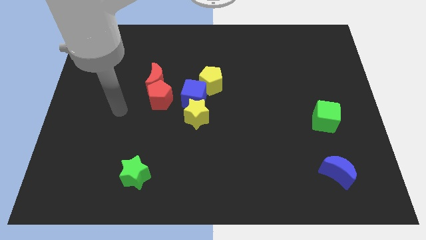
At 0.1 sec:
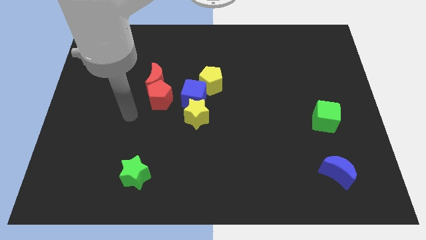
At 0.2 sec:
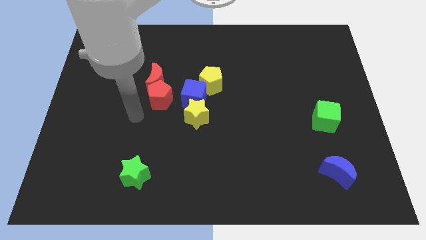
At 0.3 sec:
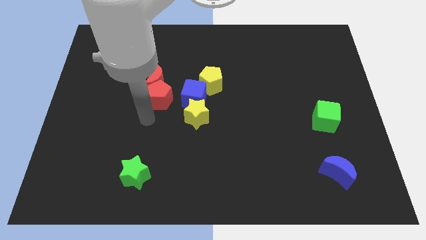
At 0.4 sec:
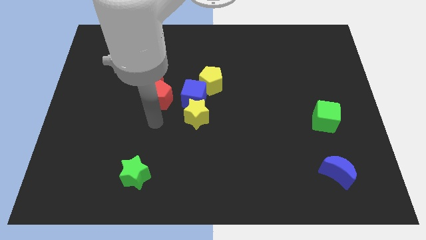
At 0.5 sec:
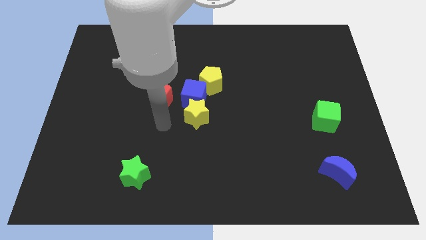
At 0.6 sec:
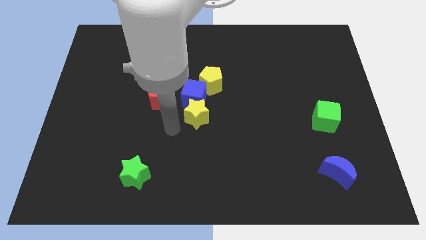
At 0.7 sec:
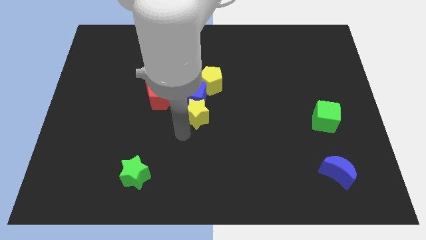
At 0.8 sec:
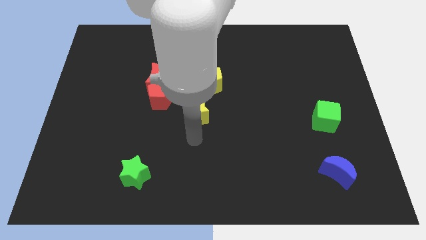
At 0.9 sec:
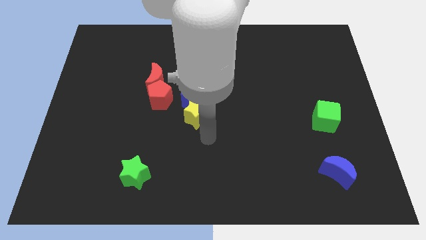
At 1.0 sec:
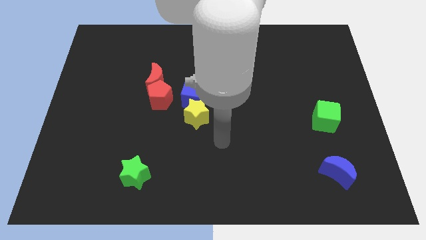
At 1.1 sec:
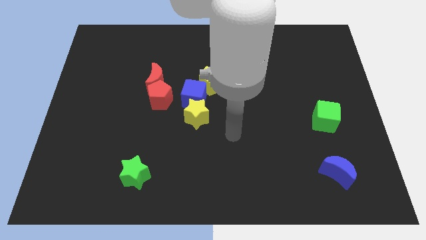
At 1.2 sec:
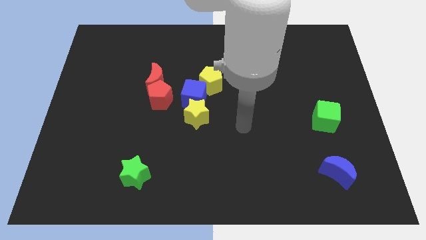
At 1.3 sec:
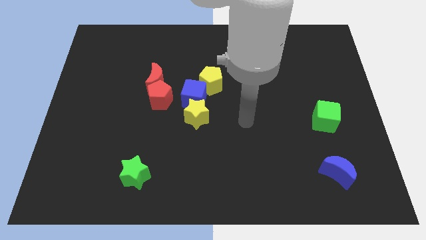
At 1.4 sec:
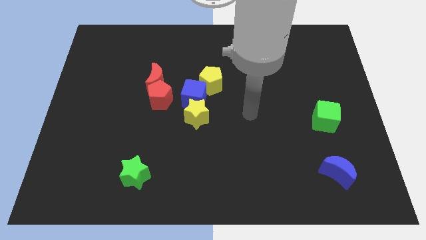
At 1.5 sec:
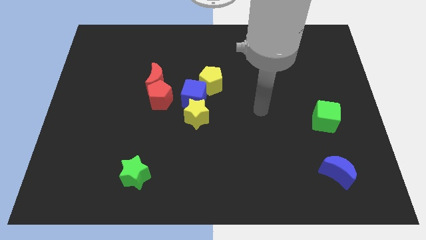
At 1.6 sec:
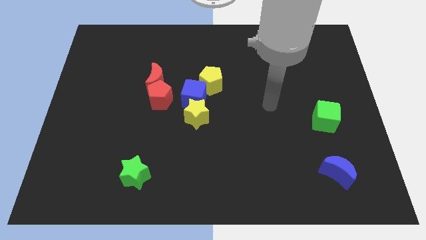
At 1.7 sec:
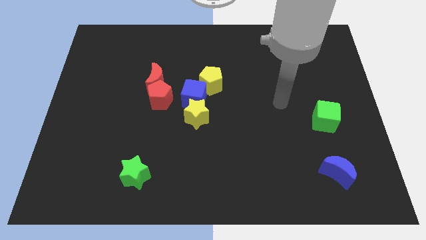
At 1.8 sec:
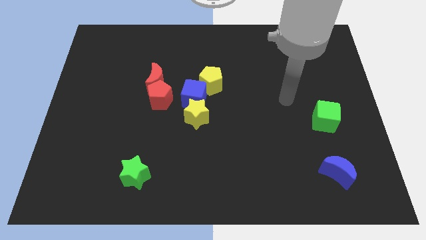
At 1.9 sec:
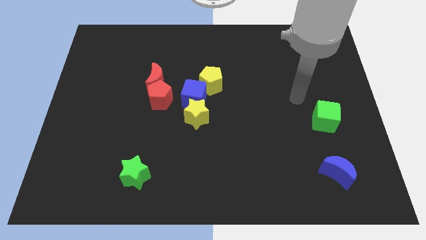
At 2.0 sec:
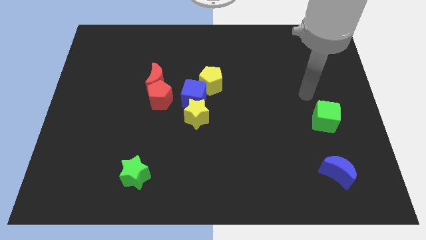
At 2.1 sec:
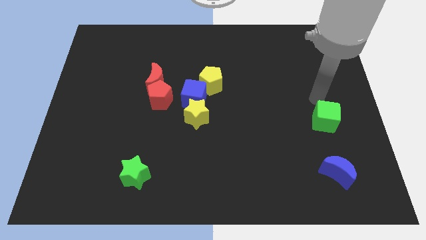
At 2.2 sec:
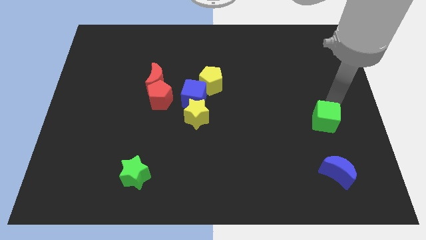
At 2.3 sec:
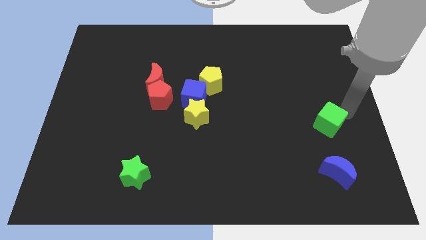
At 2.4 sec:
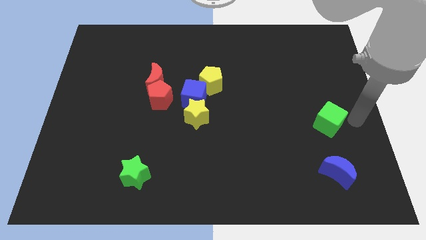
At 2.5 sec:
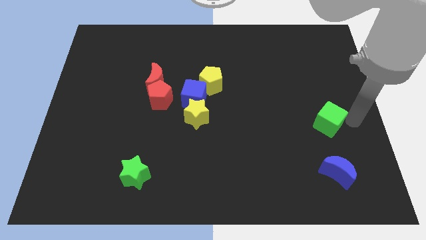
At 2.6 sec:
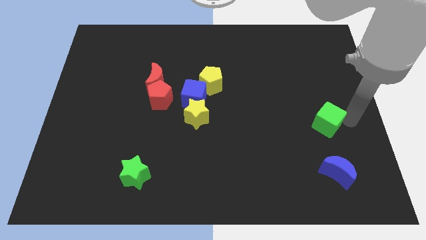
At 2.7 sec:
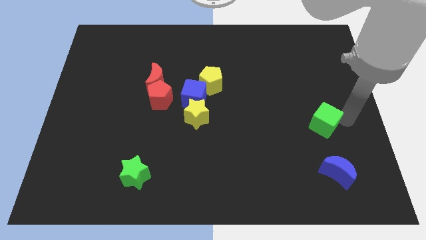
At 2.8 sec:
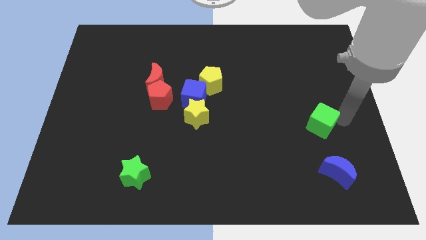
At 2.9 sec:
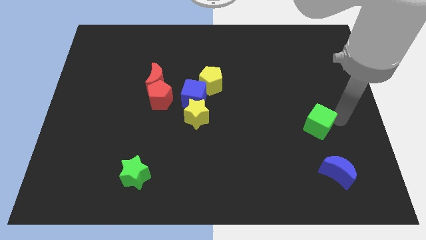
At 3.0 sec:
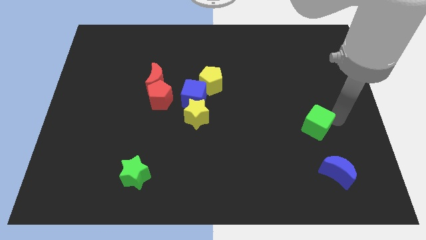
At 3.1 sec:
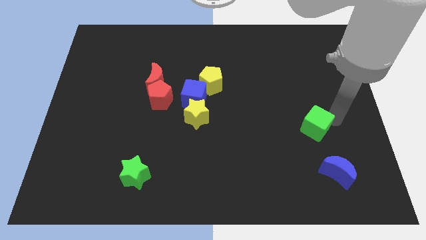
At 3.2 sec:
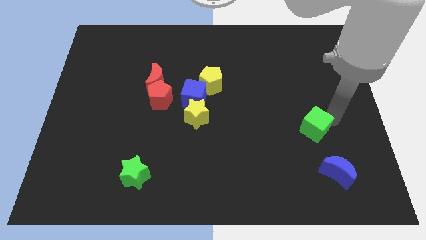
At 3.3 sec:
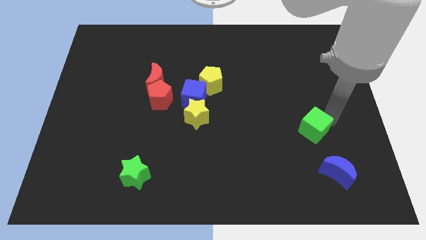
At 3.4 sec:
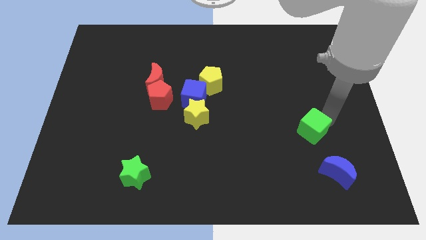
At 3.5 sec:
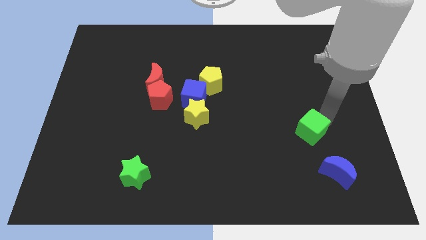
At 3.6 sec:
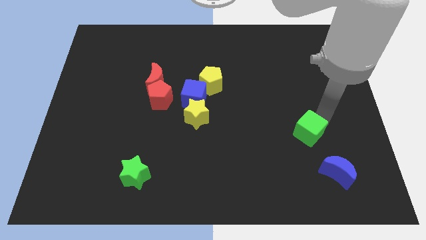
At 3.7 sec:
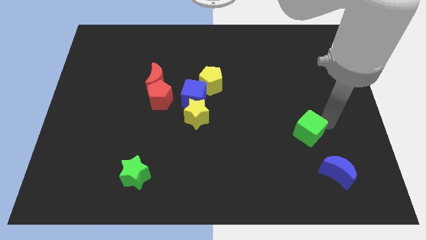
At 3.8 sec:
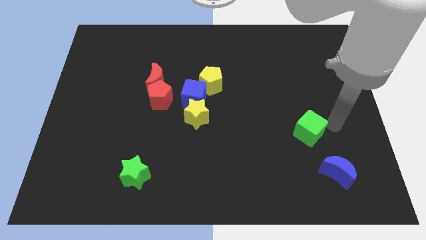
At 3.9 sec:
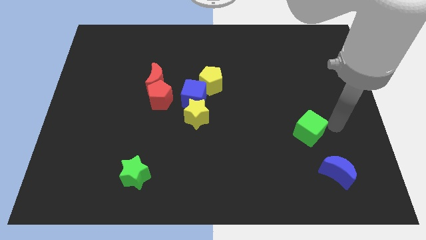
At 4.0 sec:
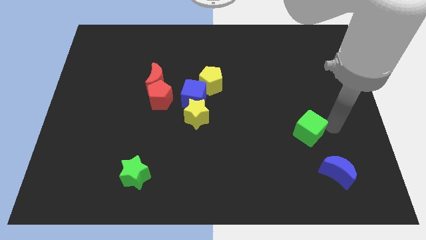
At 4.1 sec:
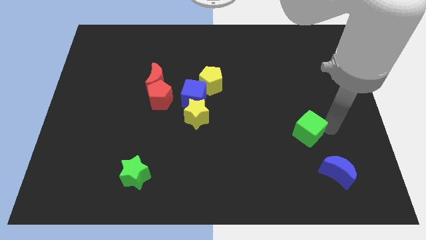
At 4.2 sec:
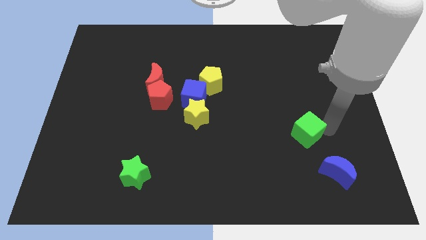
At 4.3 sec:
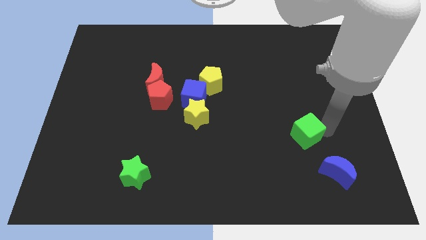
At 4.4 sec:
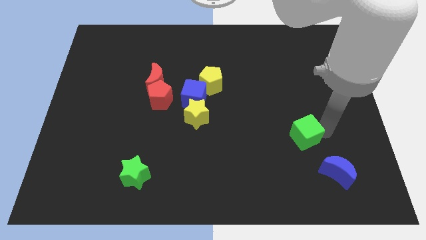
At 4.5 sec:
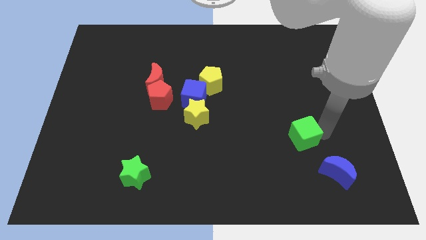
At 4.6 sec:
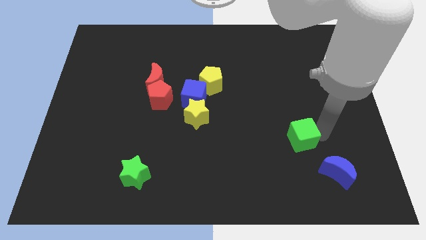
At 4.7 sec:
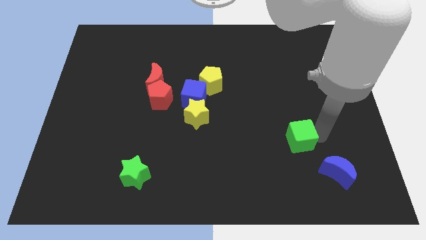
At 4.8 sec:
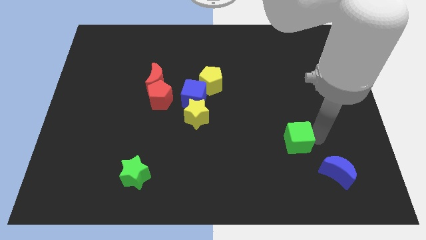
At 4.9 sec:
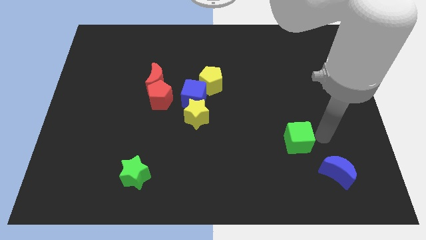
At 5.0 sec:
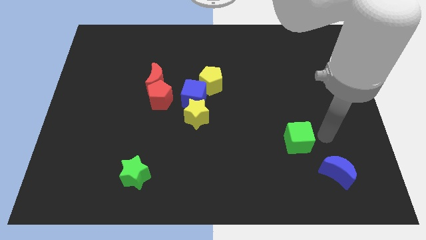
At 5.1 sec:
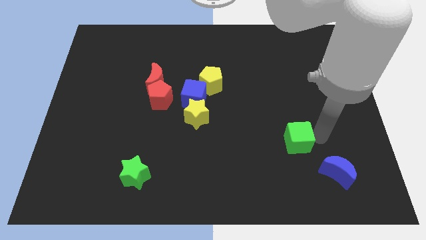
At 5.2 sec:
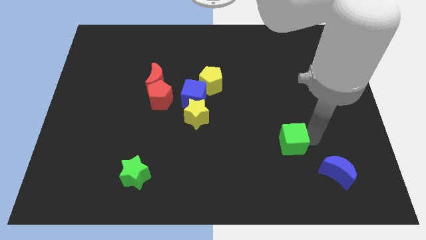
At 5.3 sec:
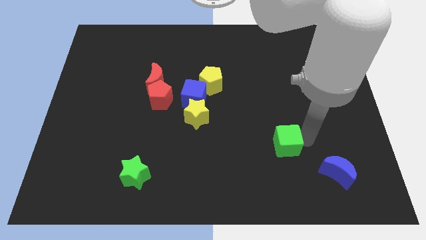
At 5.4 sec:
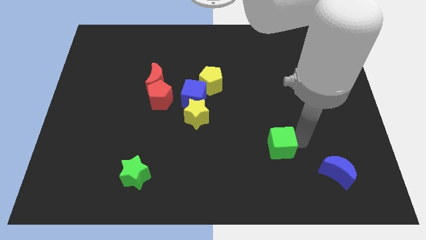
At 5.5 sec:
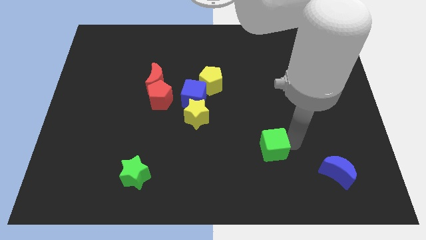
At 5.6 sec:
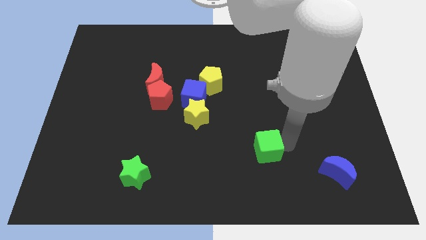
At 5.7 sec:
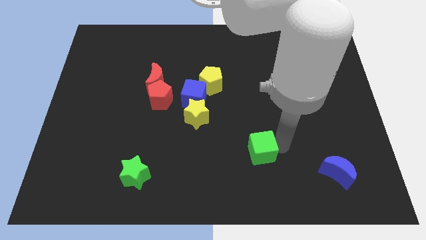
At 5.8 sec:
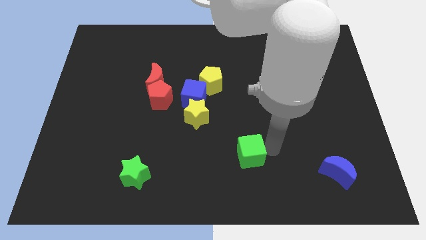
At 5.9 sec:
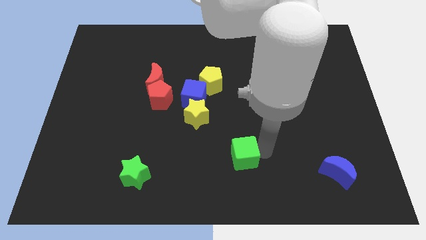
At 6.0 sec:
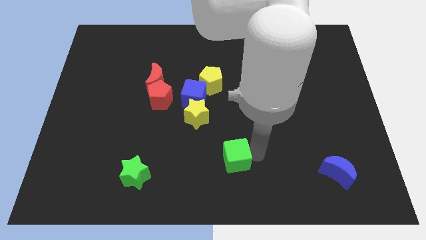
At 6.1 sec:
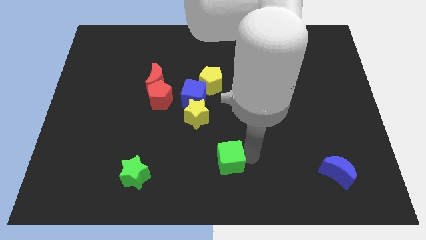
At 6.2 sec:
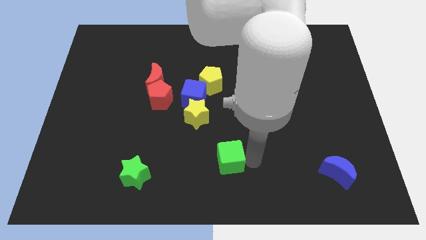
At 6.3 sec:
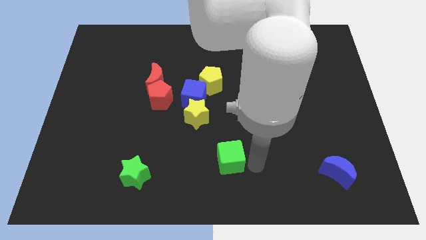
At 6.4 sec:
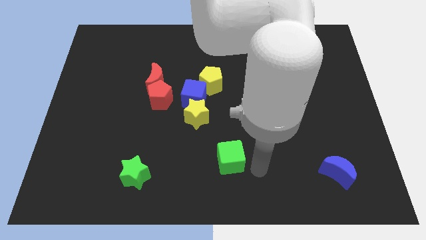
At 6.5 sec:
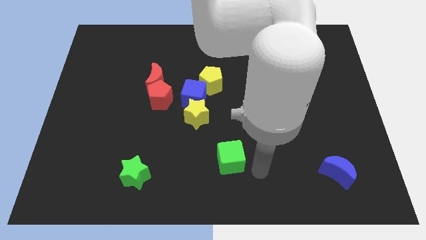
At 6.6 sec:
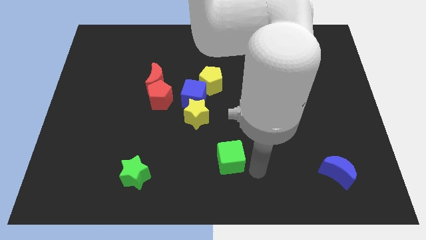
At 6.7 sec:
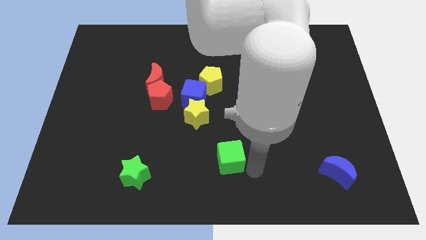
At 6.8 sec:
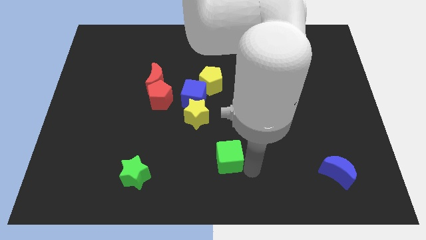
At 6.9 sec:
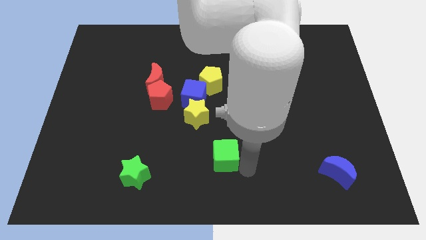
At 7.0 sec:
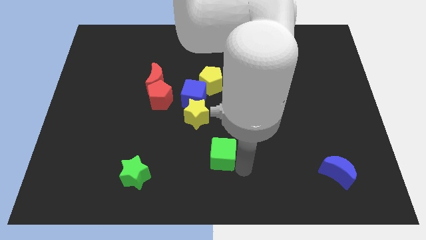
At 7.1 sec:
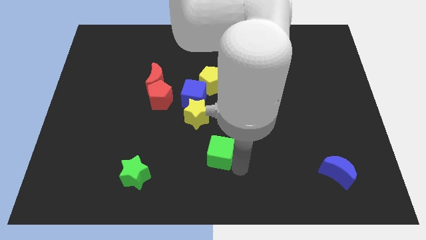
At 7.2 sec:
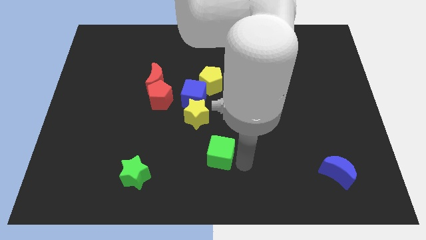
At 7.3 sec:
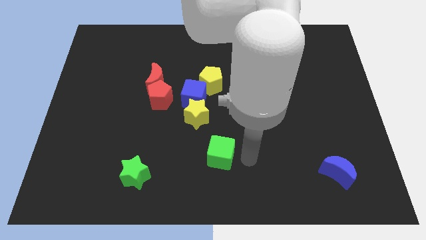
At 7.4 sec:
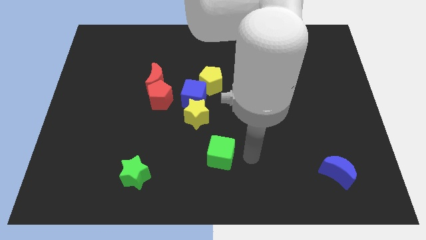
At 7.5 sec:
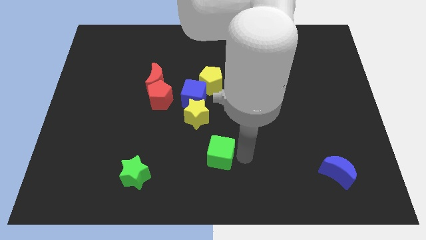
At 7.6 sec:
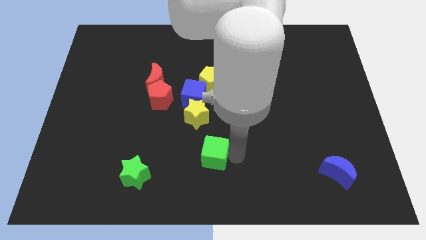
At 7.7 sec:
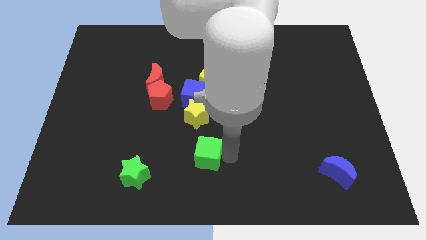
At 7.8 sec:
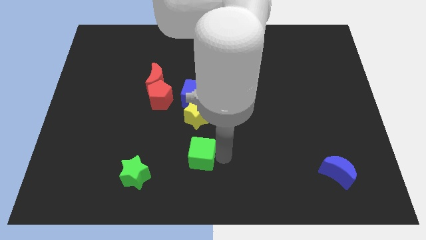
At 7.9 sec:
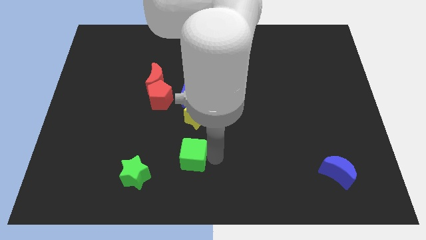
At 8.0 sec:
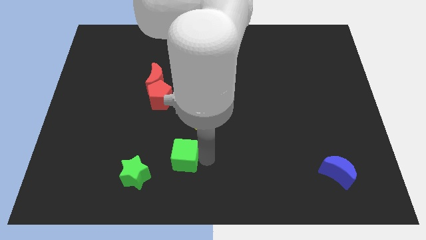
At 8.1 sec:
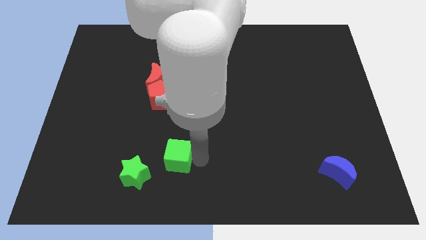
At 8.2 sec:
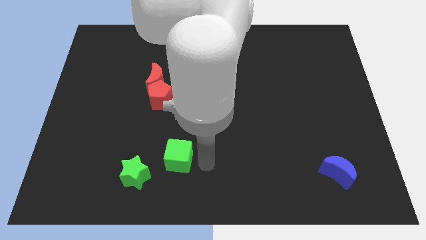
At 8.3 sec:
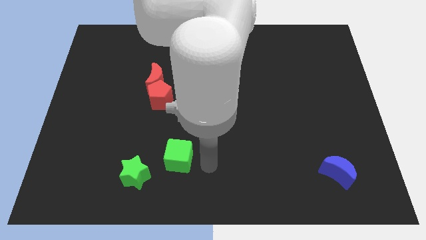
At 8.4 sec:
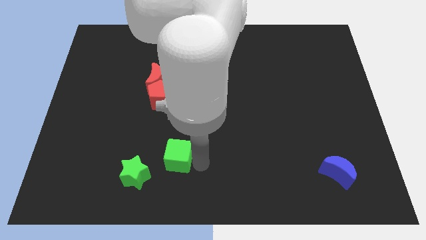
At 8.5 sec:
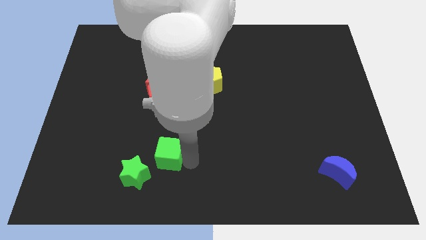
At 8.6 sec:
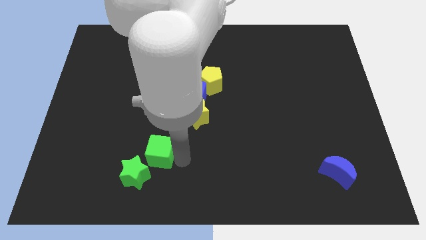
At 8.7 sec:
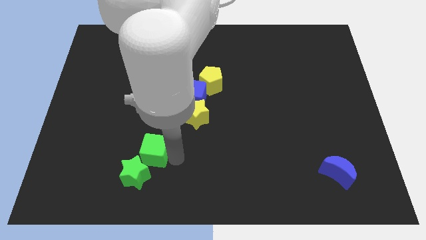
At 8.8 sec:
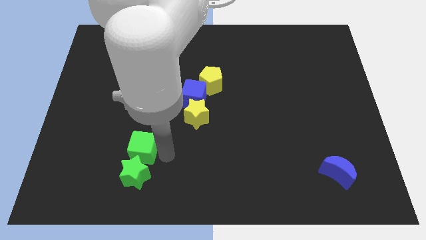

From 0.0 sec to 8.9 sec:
move the green cube to the top left of the green star
